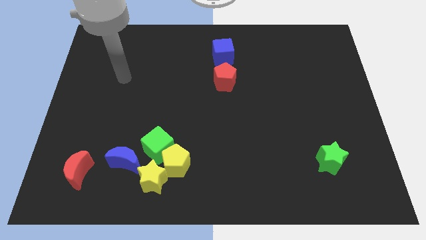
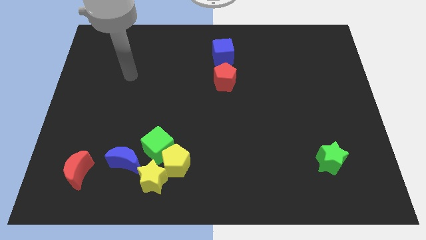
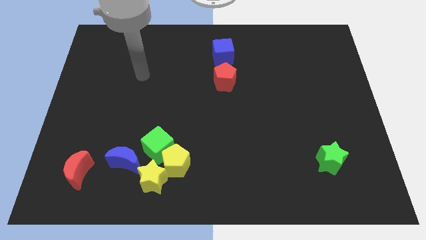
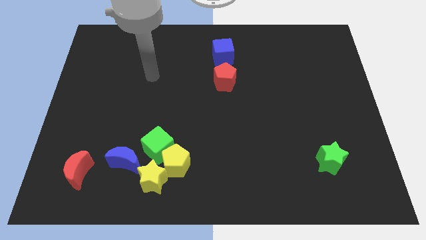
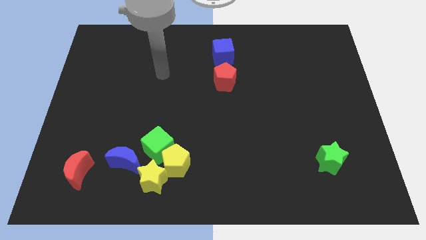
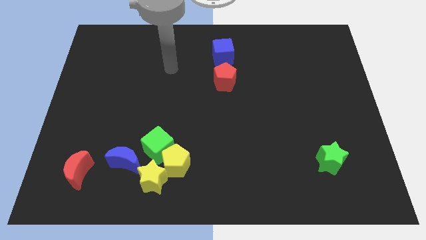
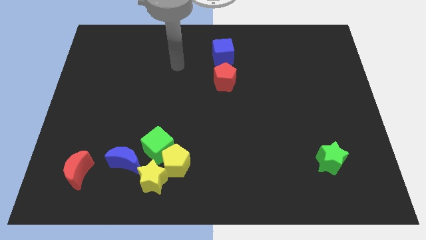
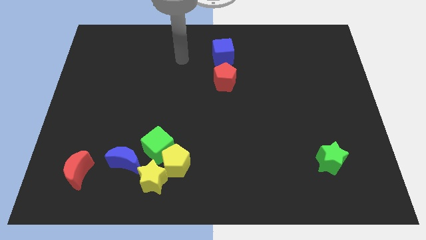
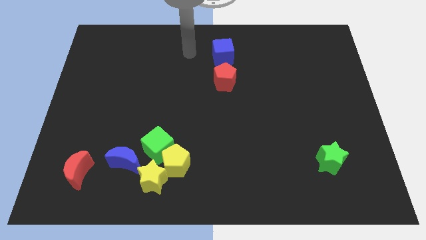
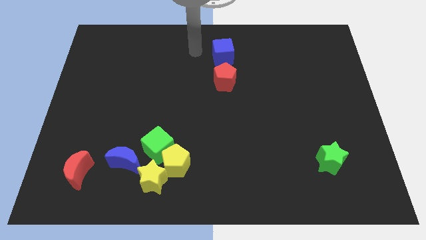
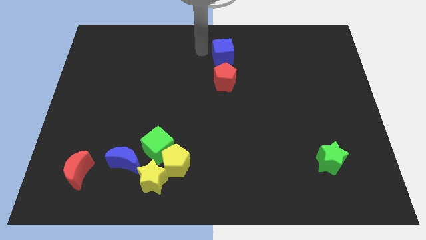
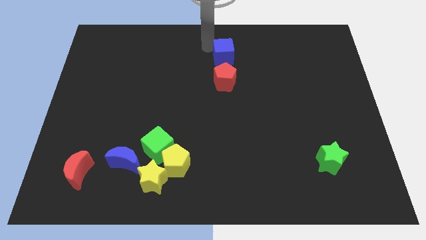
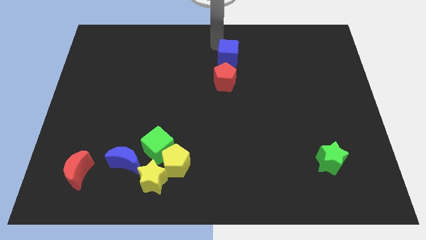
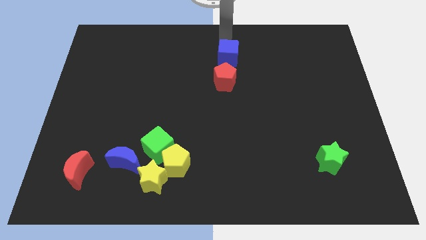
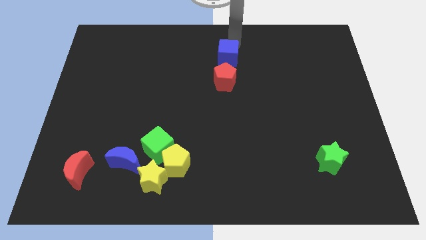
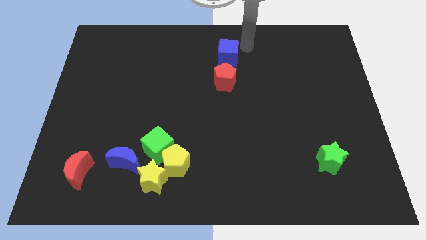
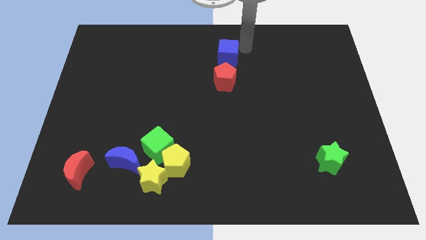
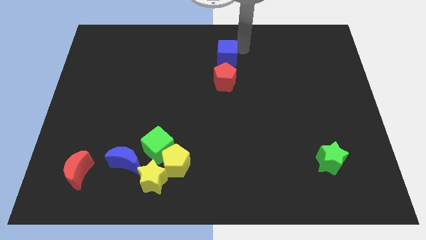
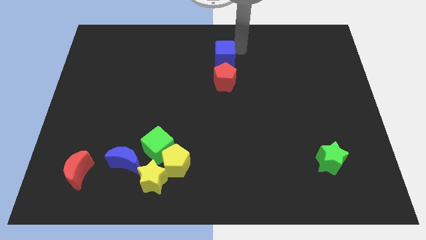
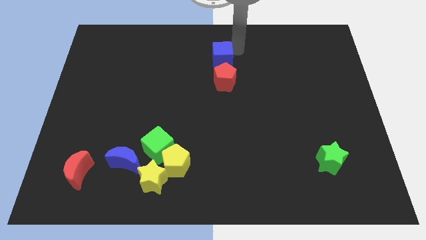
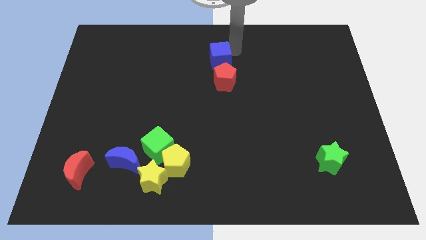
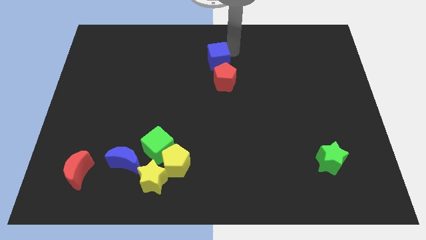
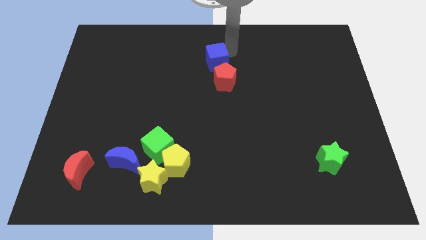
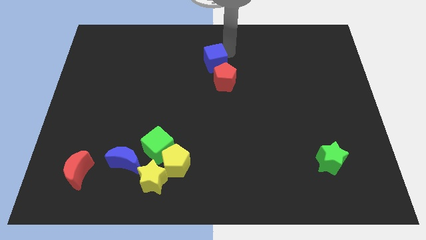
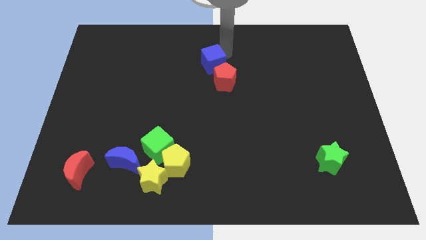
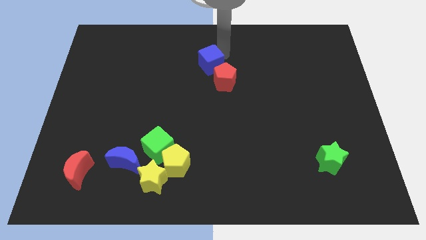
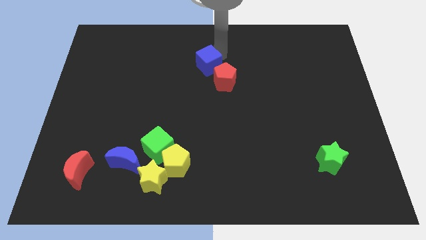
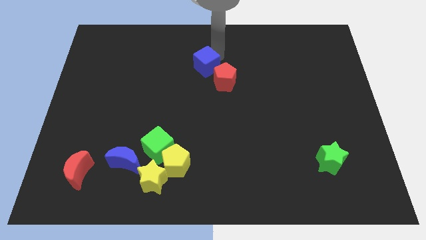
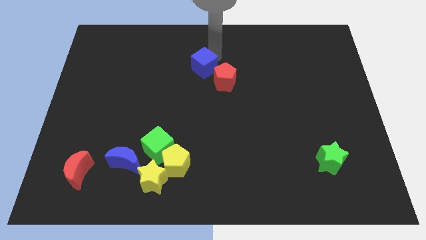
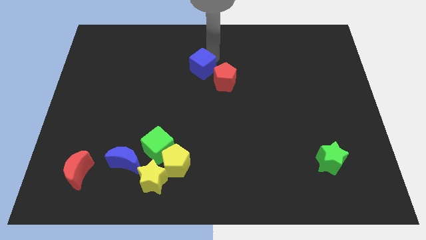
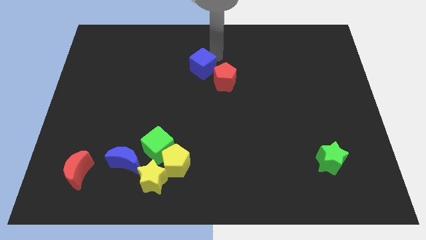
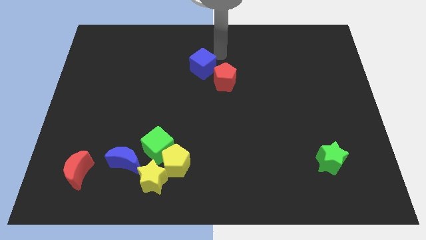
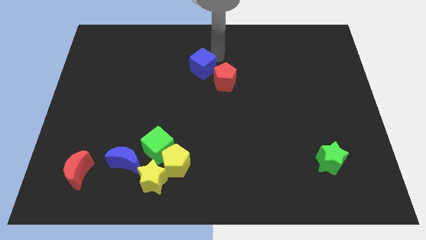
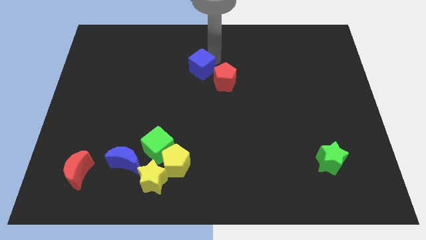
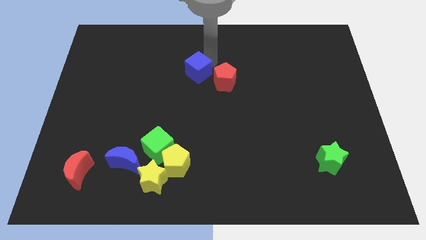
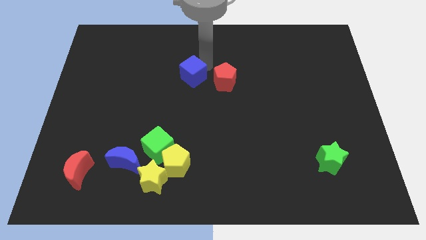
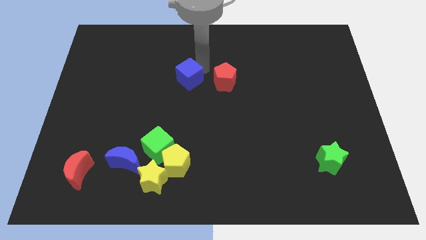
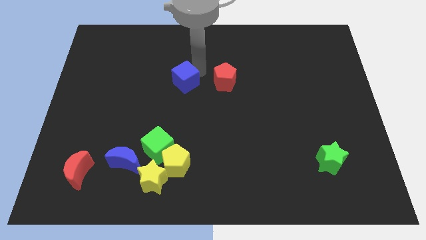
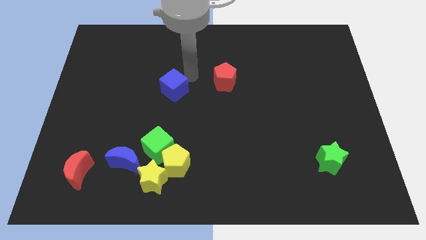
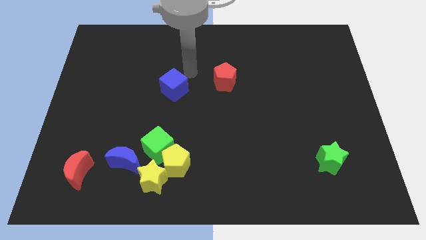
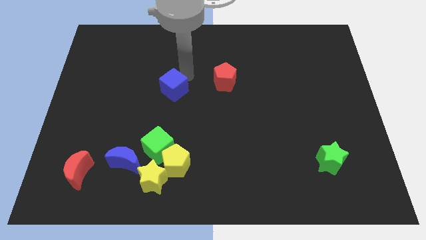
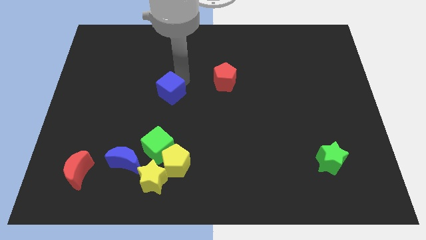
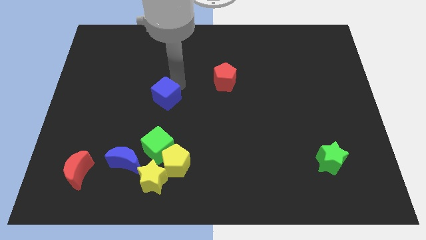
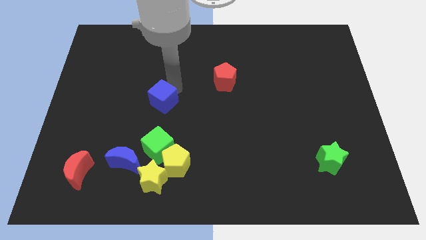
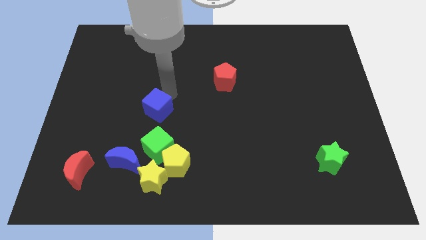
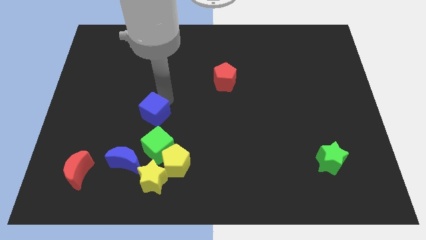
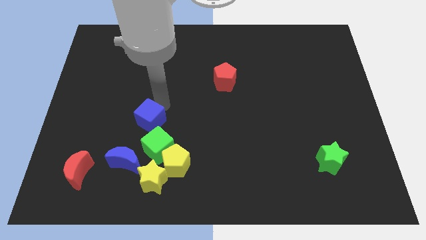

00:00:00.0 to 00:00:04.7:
put the blue cube to the top left side of the green cube

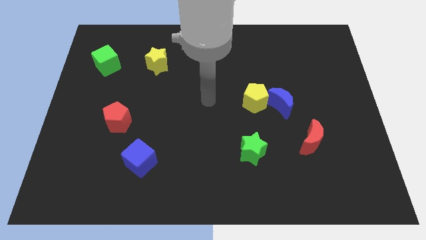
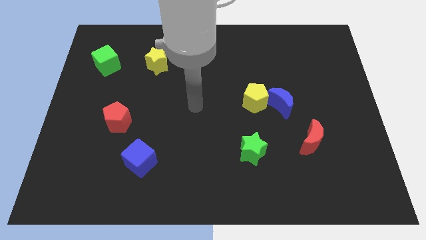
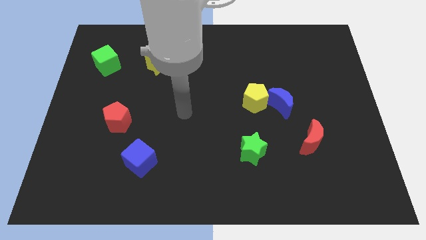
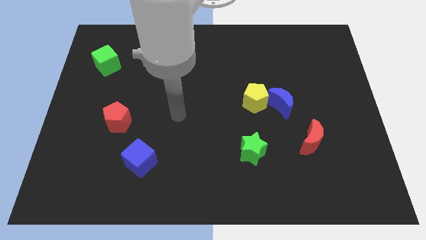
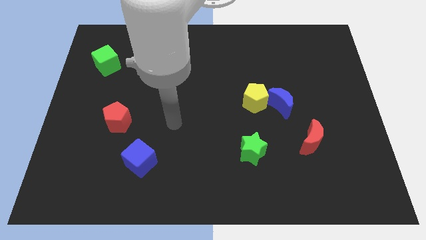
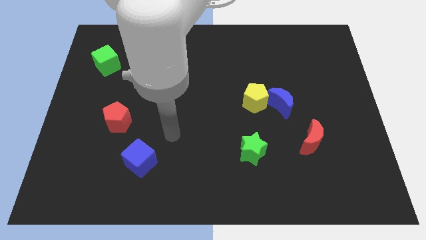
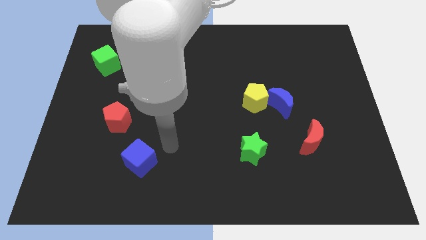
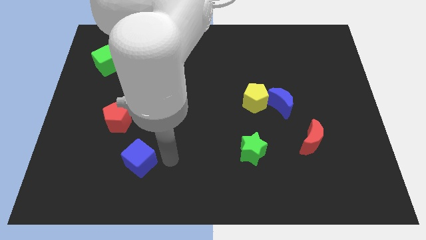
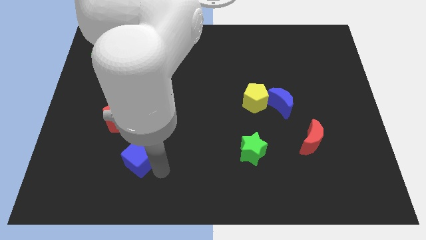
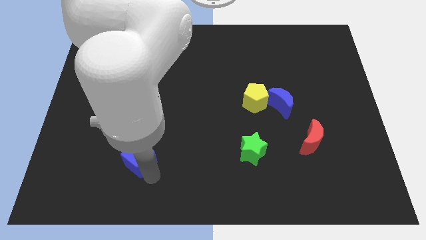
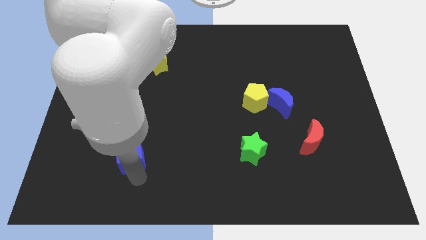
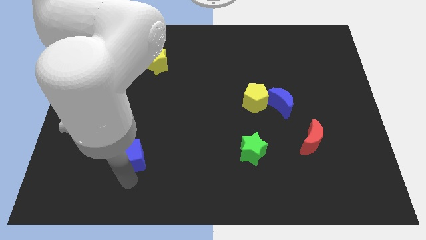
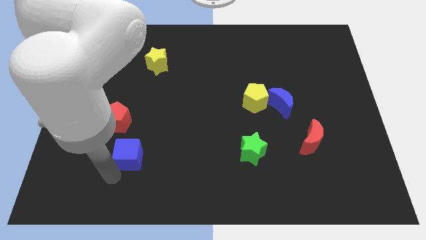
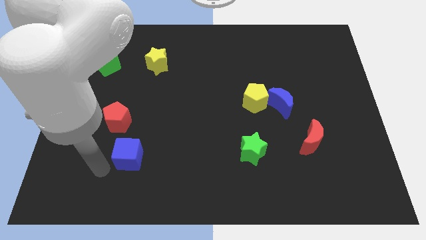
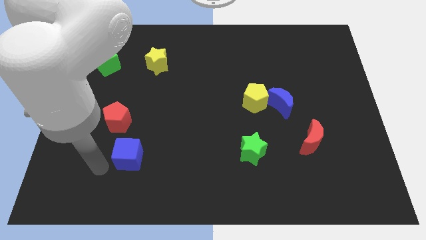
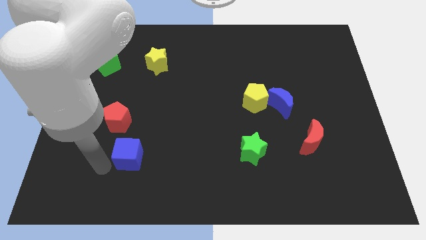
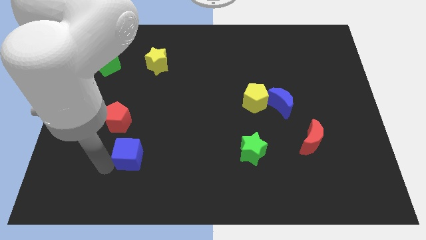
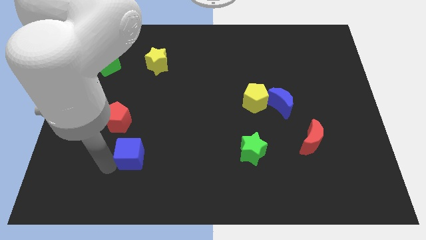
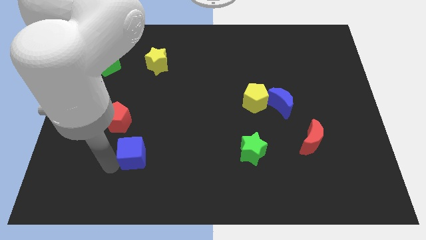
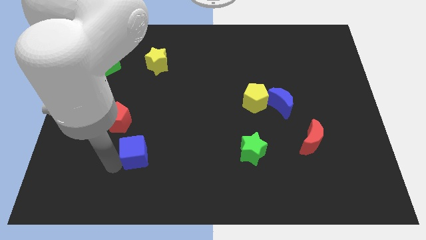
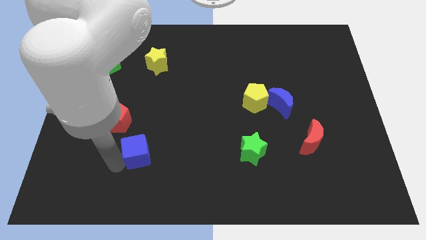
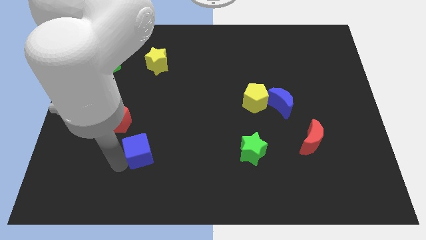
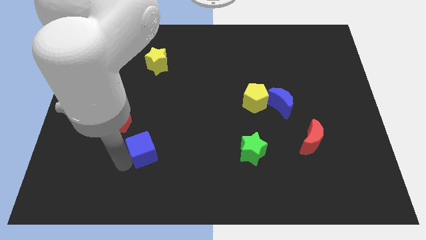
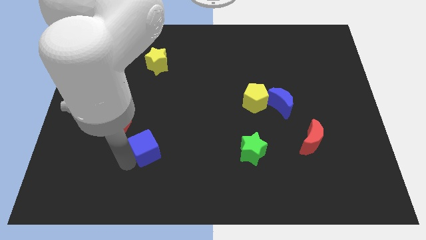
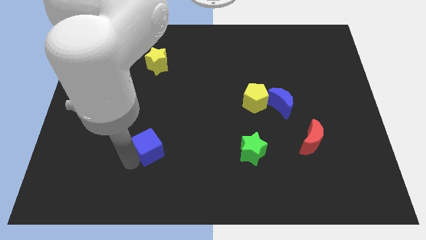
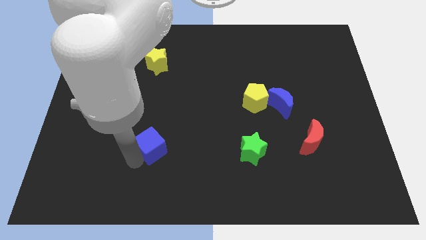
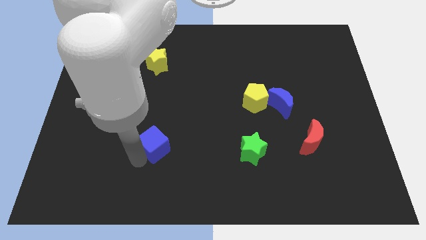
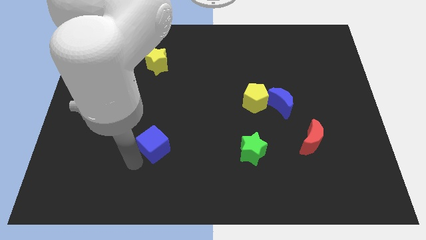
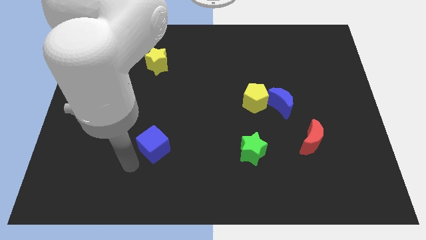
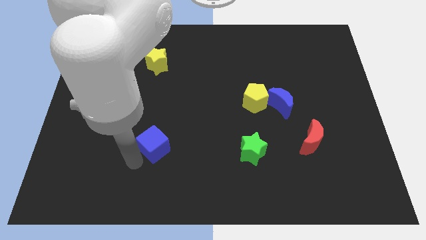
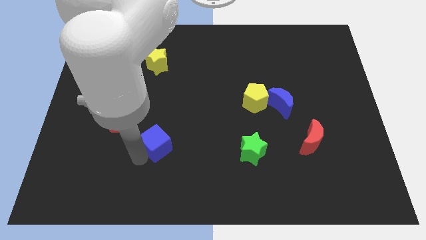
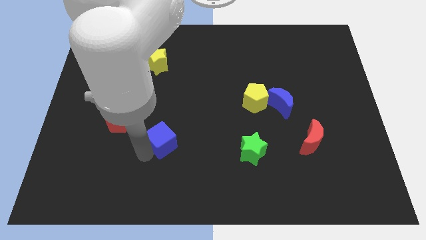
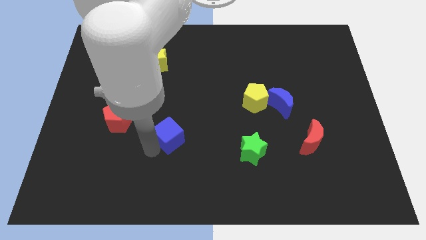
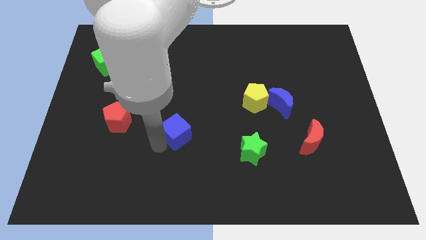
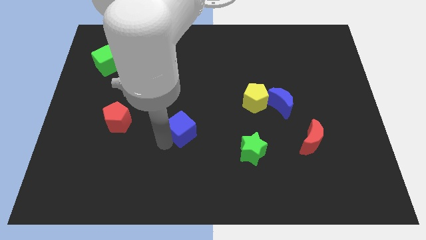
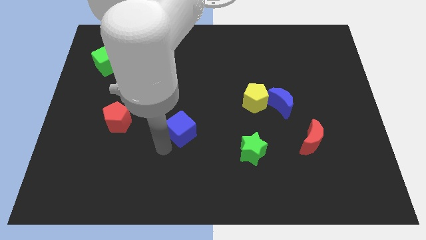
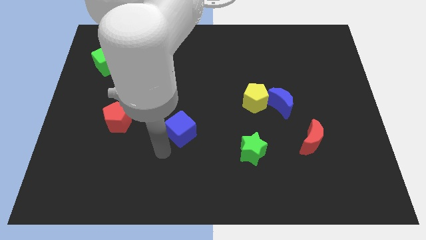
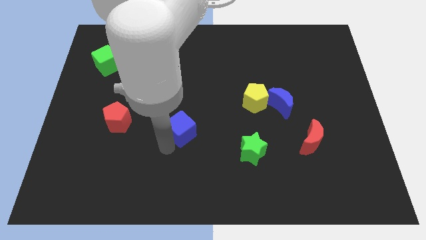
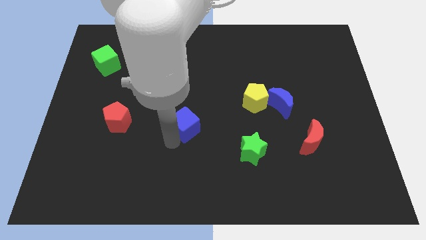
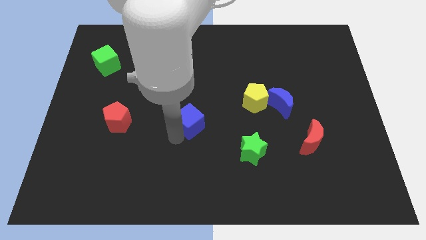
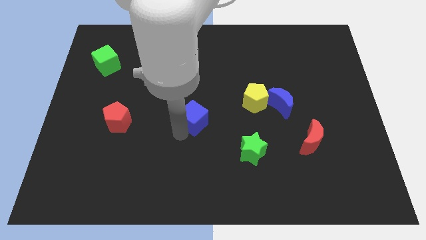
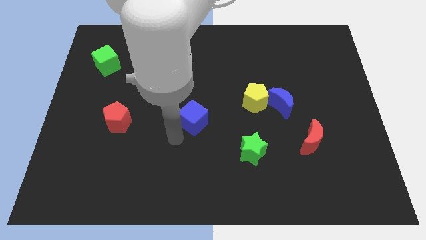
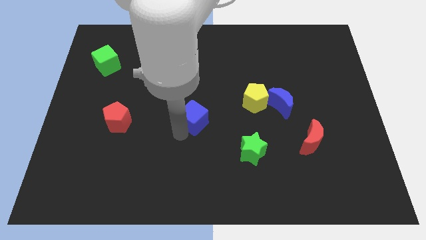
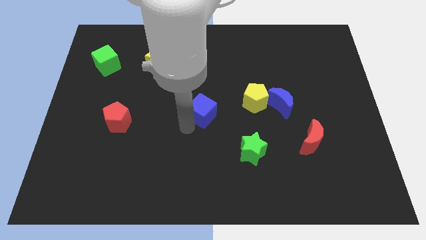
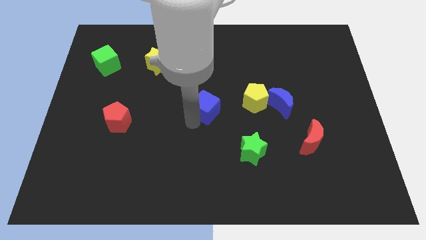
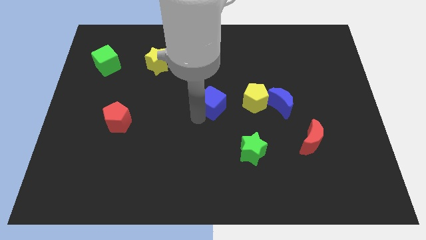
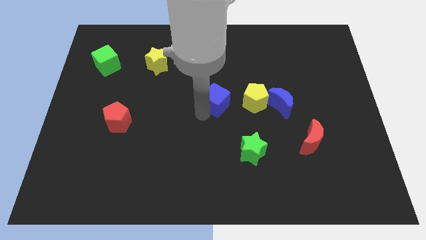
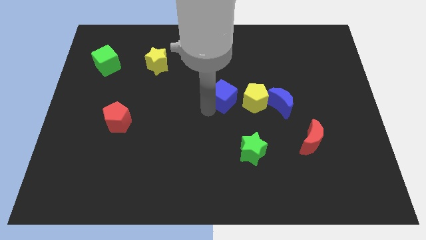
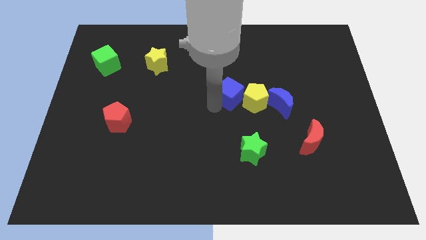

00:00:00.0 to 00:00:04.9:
slide the blue cube to the top left of the yellow pentagon
